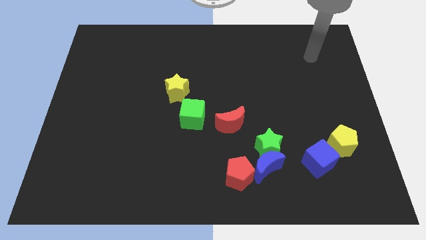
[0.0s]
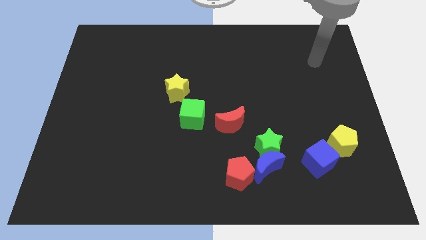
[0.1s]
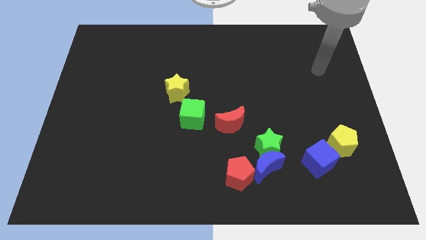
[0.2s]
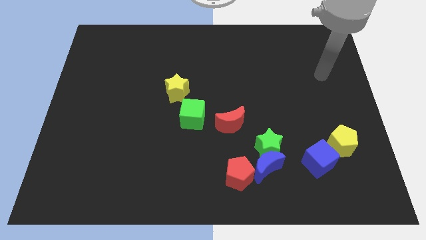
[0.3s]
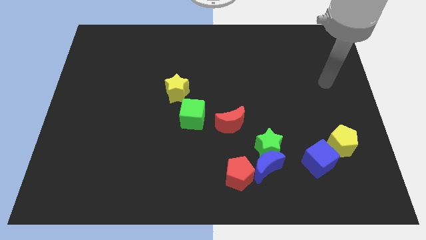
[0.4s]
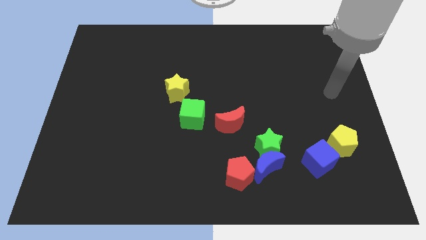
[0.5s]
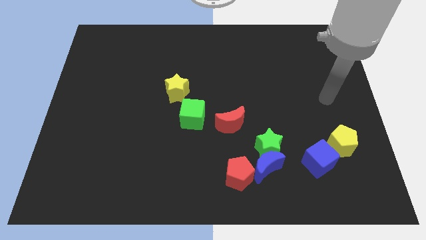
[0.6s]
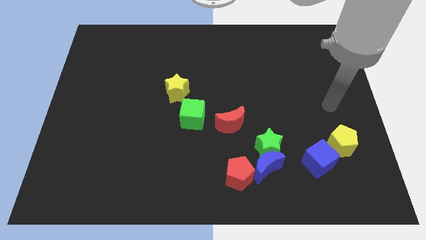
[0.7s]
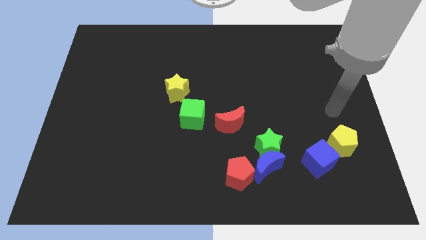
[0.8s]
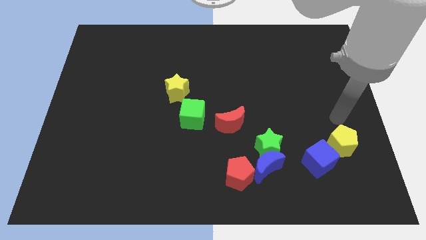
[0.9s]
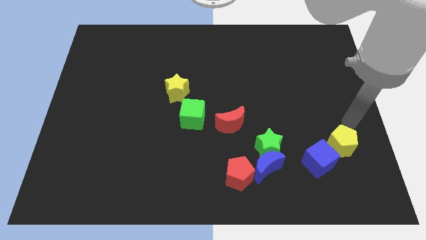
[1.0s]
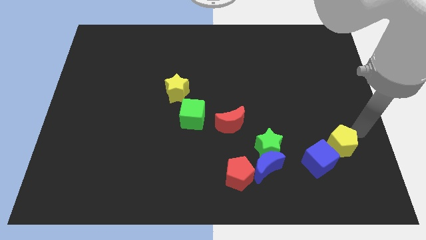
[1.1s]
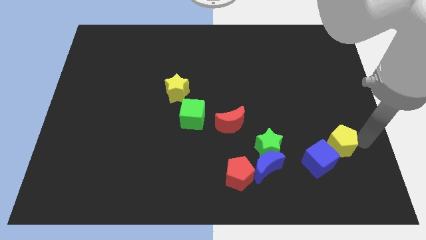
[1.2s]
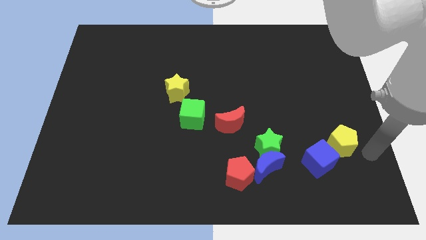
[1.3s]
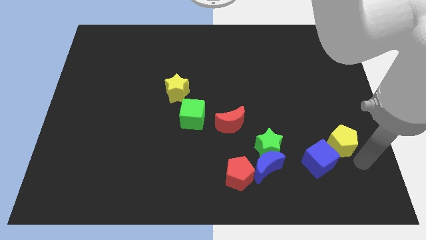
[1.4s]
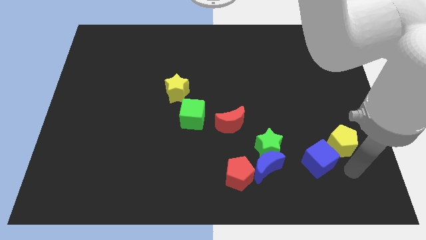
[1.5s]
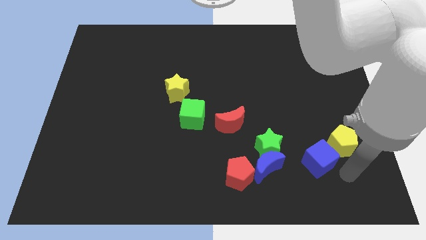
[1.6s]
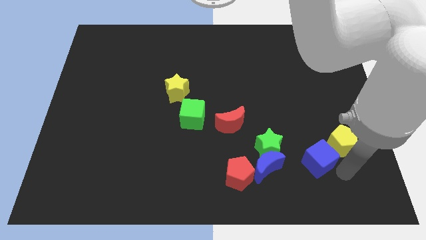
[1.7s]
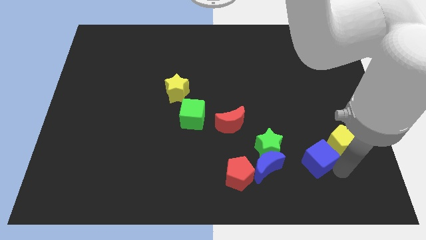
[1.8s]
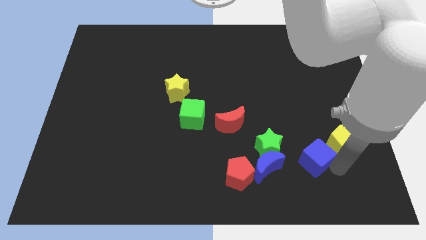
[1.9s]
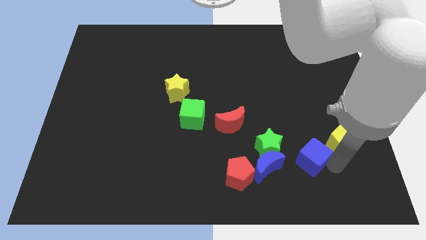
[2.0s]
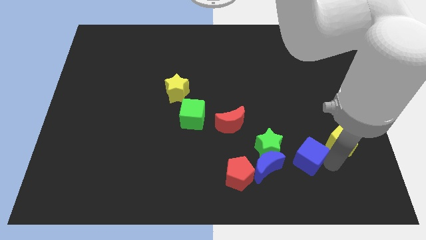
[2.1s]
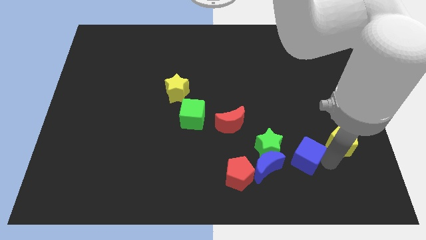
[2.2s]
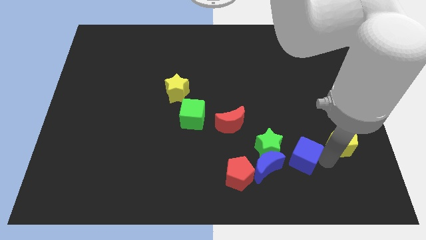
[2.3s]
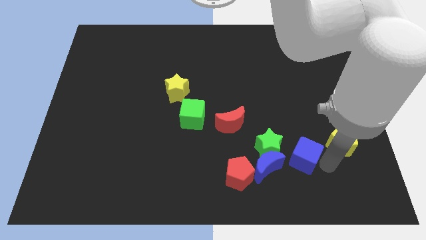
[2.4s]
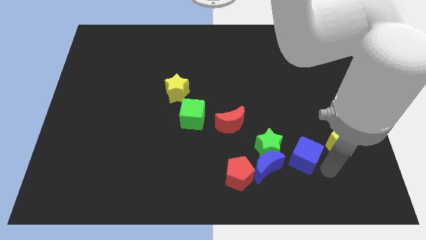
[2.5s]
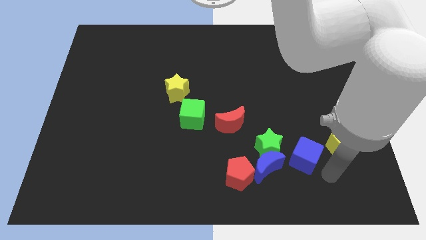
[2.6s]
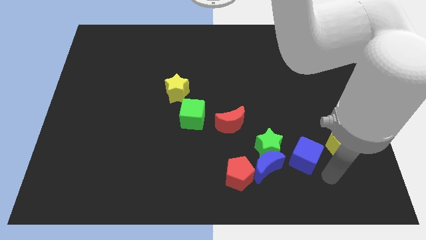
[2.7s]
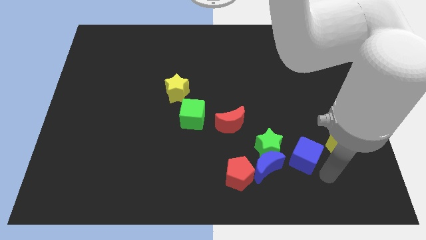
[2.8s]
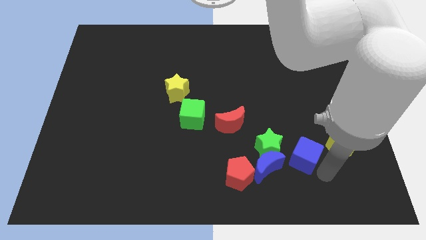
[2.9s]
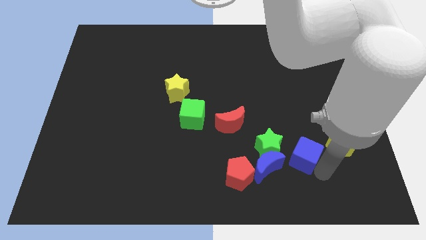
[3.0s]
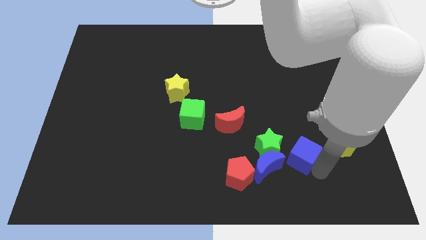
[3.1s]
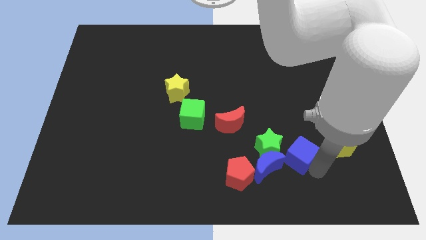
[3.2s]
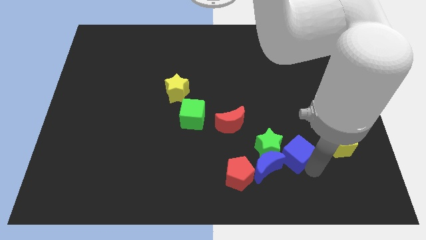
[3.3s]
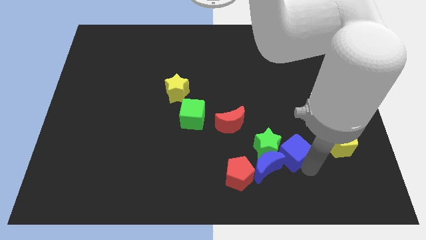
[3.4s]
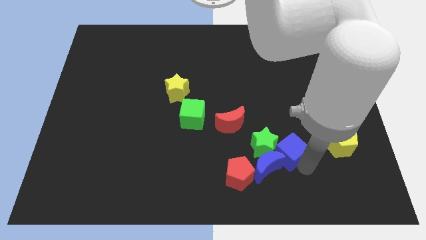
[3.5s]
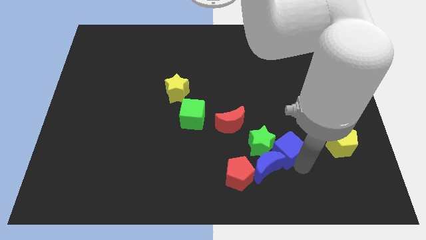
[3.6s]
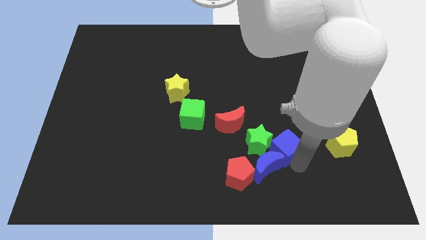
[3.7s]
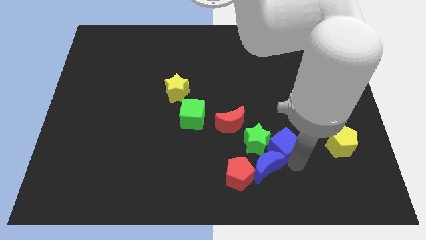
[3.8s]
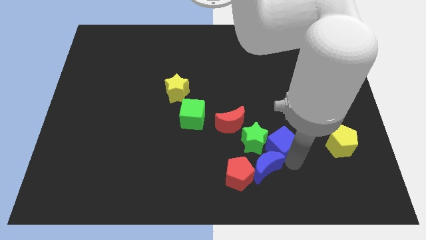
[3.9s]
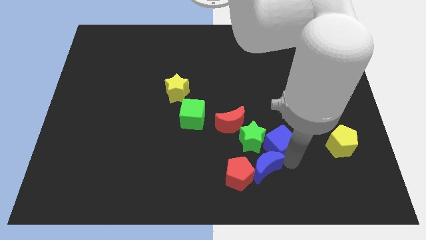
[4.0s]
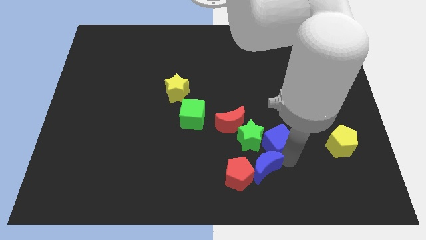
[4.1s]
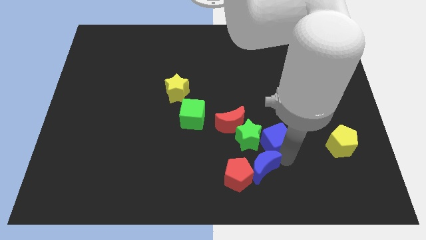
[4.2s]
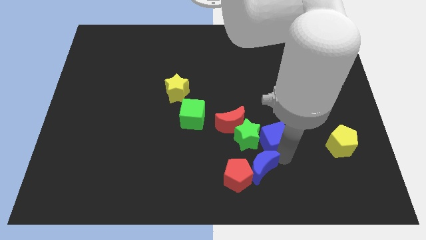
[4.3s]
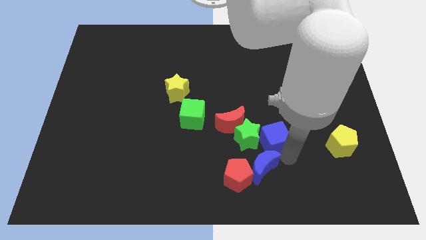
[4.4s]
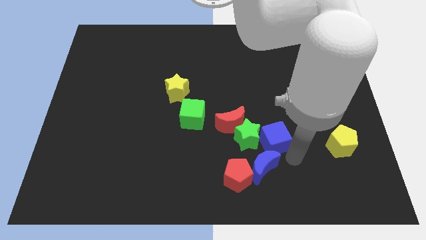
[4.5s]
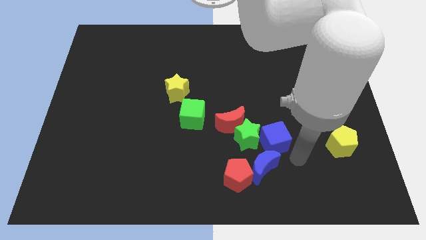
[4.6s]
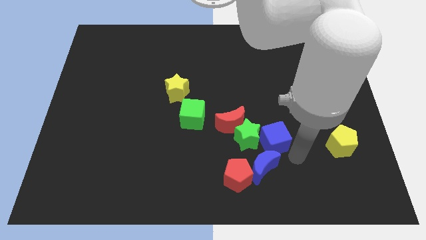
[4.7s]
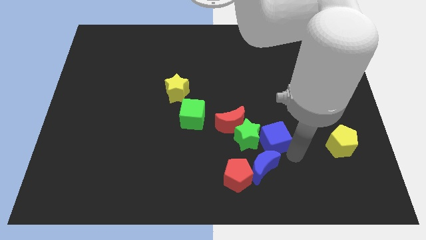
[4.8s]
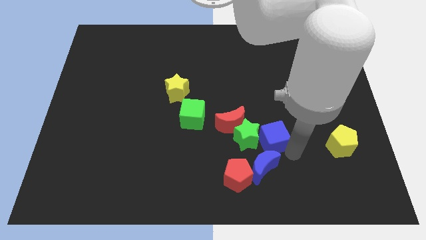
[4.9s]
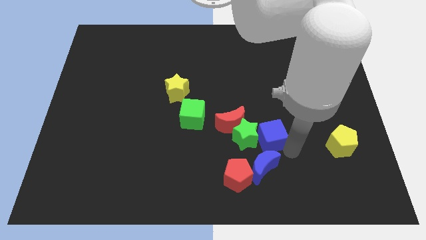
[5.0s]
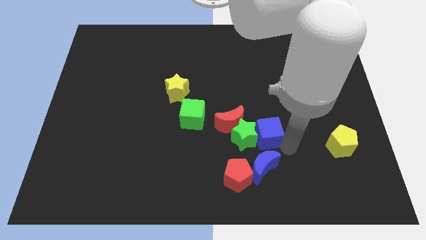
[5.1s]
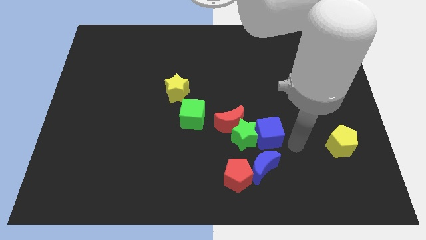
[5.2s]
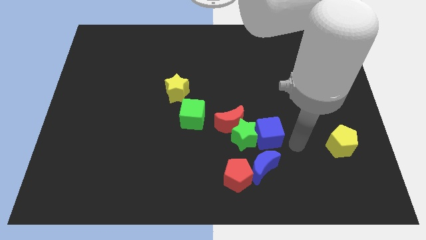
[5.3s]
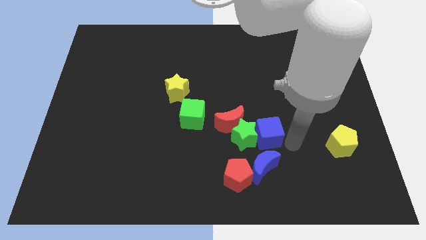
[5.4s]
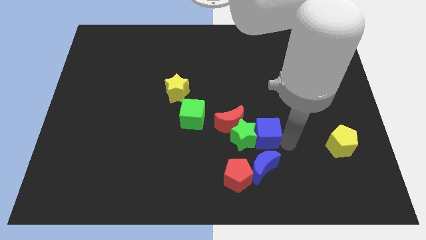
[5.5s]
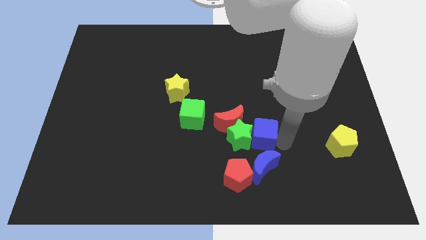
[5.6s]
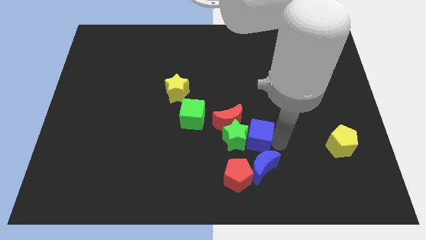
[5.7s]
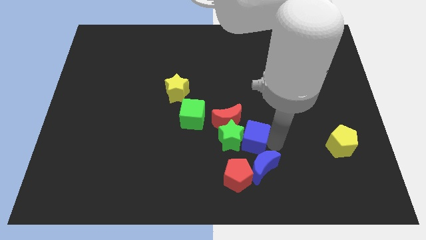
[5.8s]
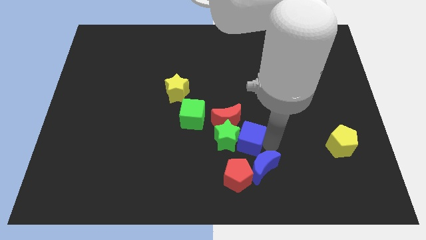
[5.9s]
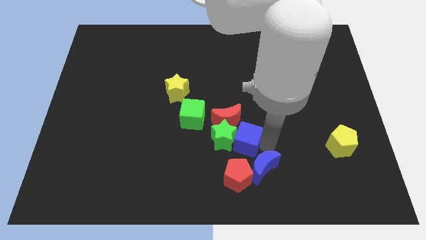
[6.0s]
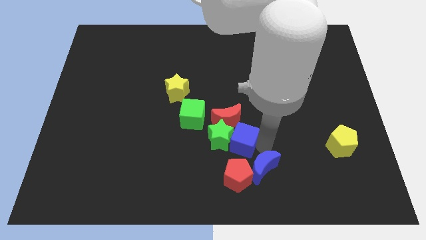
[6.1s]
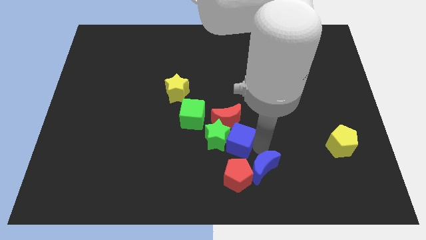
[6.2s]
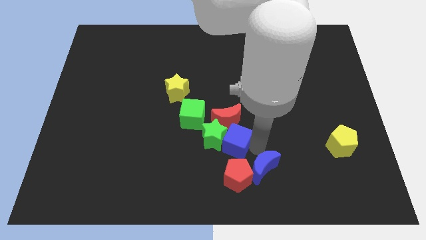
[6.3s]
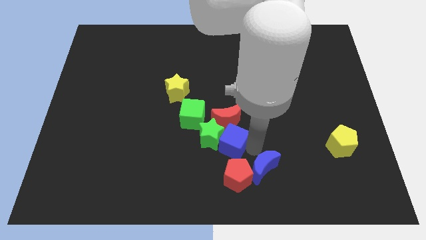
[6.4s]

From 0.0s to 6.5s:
push the blue cube next to the red moon
